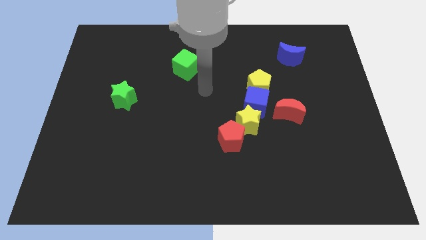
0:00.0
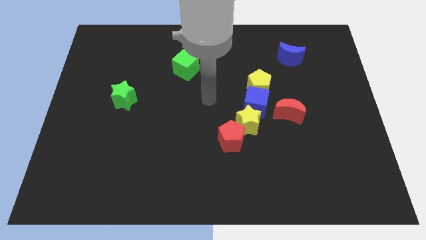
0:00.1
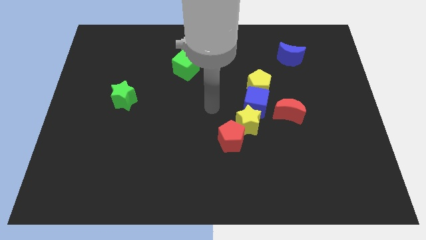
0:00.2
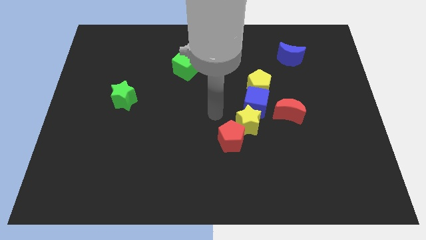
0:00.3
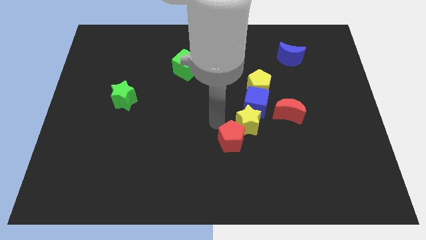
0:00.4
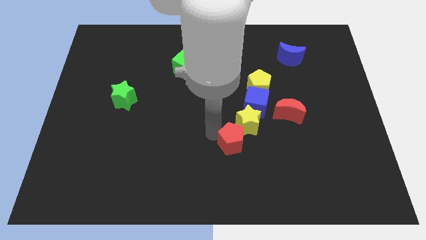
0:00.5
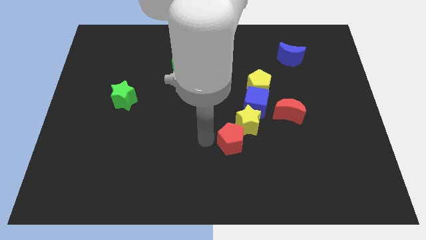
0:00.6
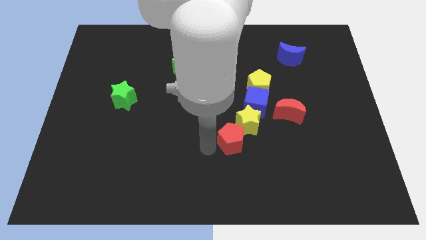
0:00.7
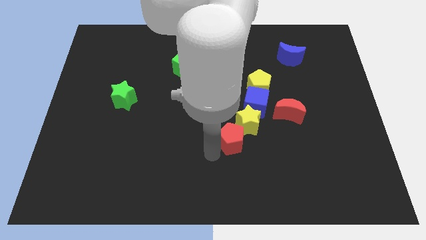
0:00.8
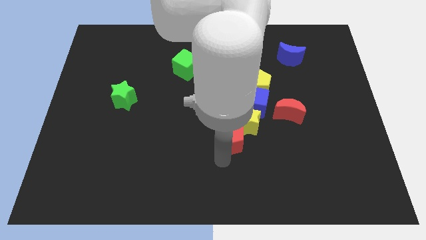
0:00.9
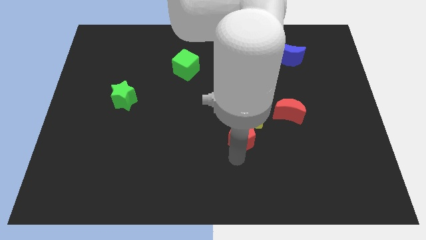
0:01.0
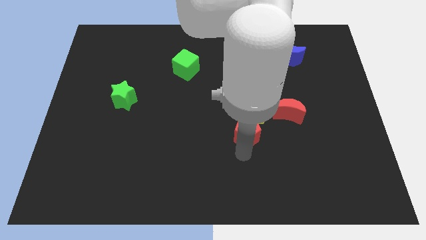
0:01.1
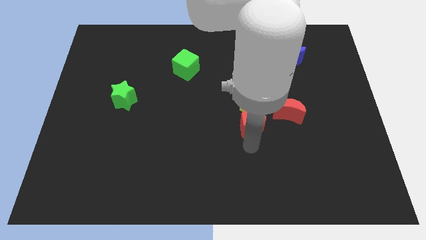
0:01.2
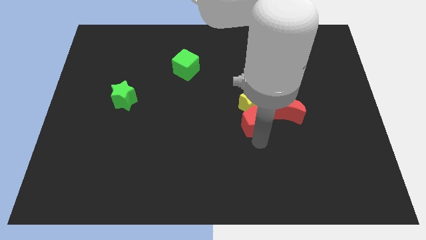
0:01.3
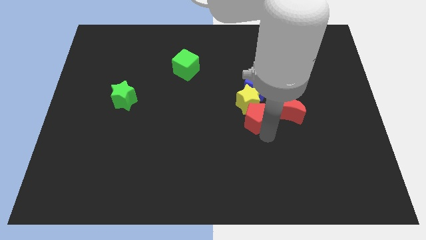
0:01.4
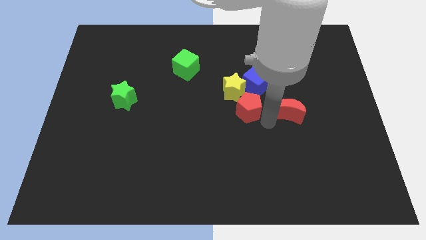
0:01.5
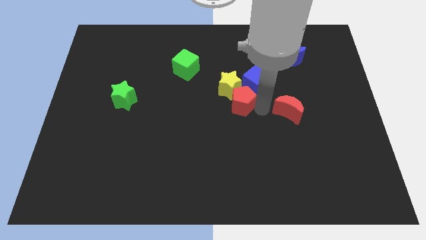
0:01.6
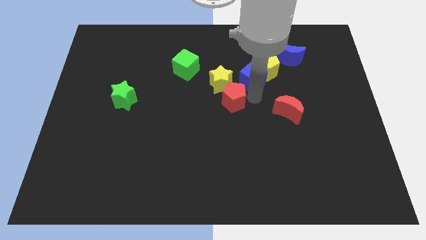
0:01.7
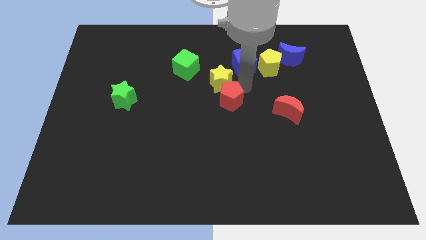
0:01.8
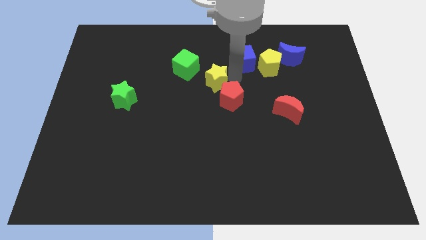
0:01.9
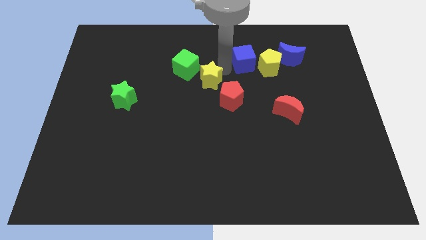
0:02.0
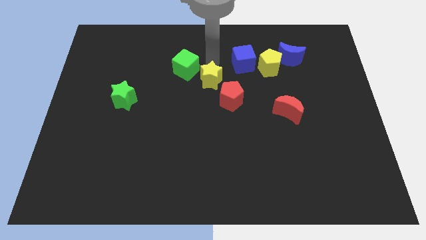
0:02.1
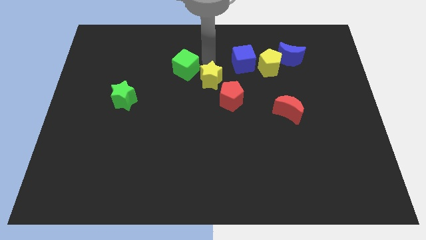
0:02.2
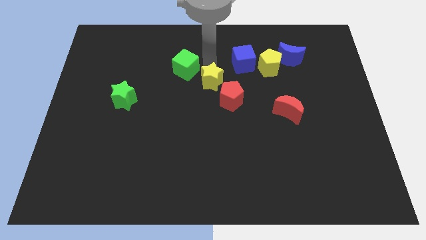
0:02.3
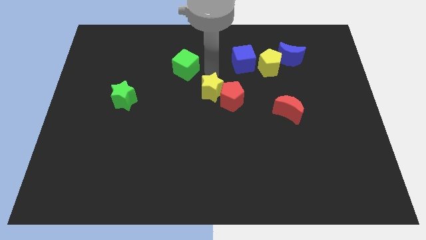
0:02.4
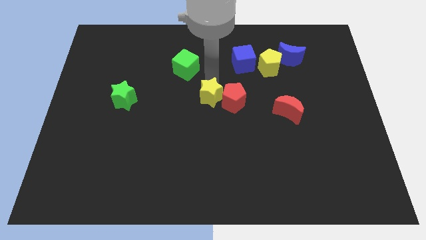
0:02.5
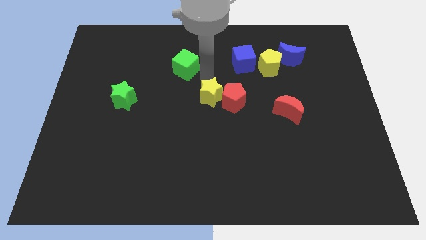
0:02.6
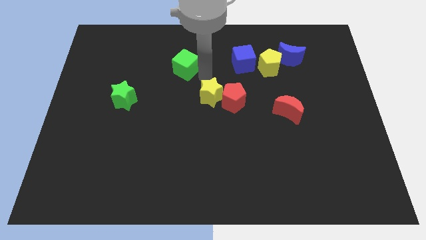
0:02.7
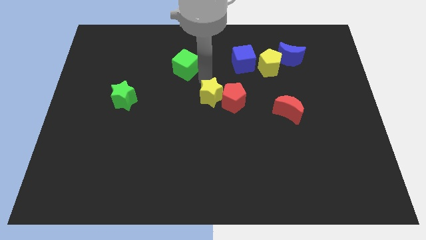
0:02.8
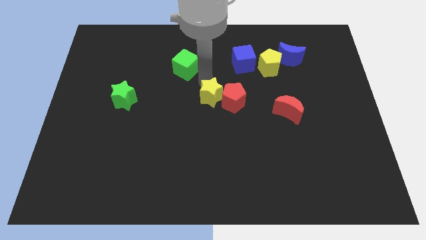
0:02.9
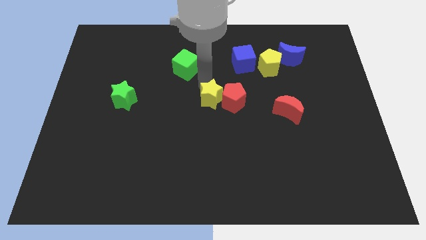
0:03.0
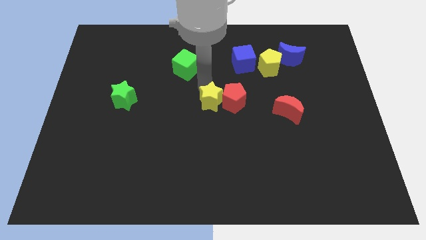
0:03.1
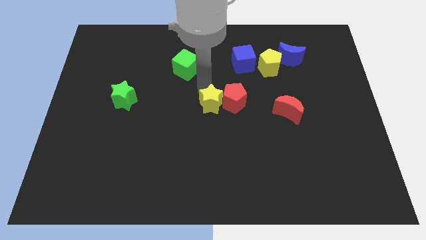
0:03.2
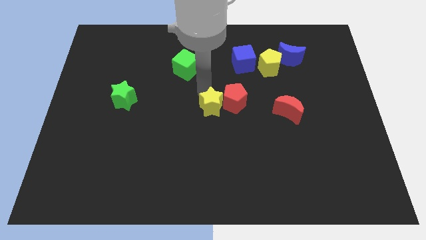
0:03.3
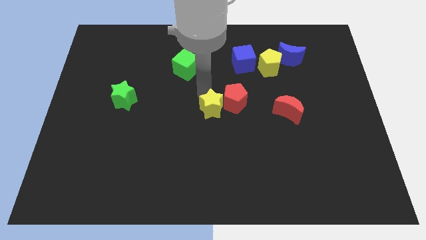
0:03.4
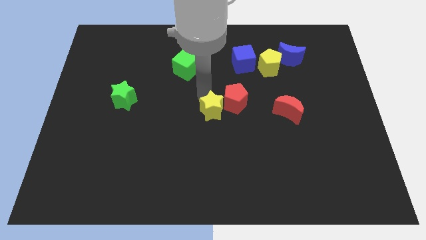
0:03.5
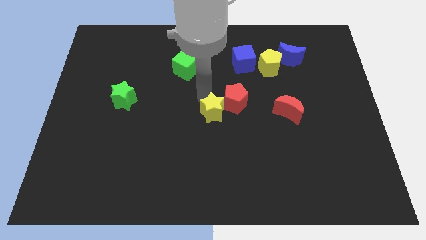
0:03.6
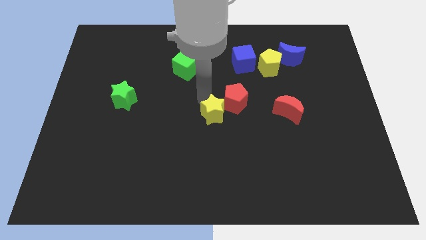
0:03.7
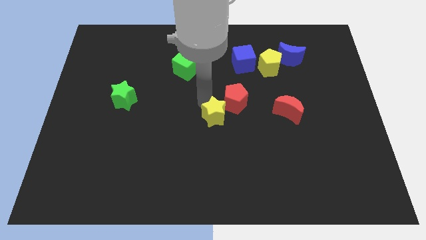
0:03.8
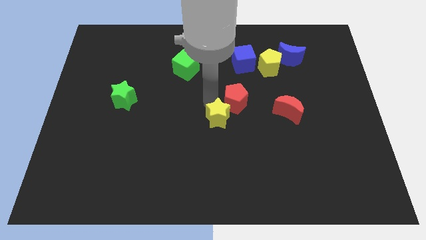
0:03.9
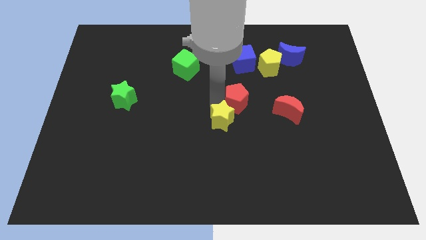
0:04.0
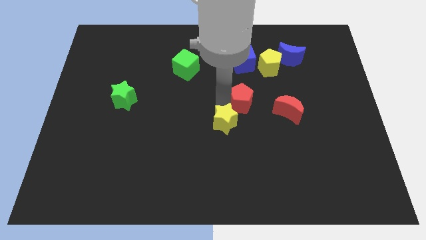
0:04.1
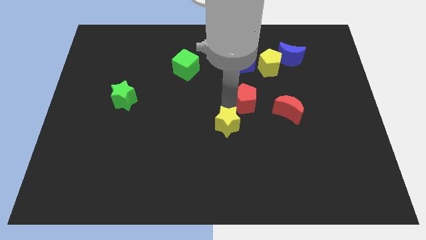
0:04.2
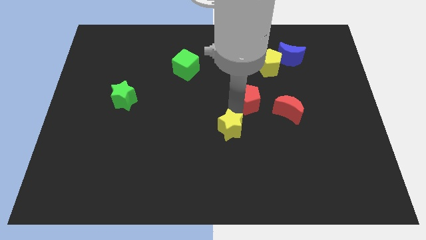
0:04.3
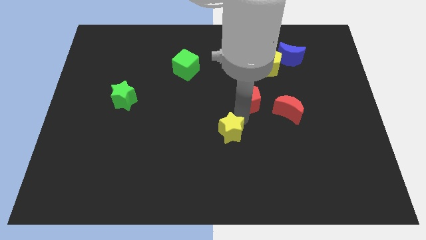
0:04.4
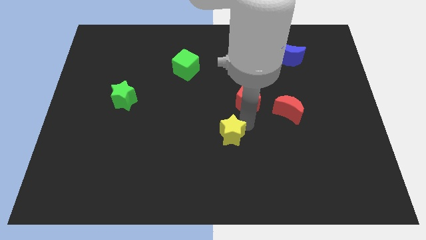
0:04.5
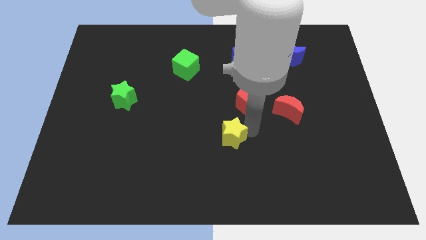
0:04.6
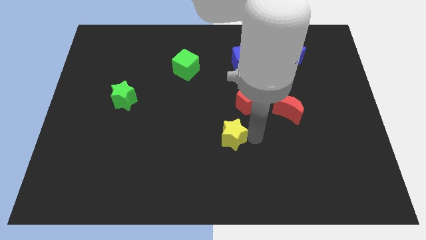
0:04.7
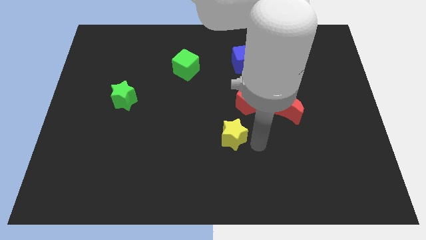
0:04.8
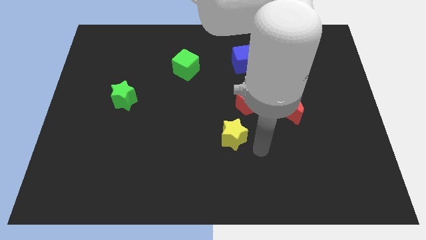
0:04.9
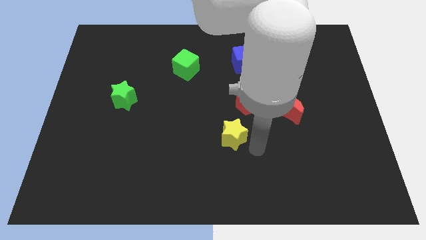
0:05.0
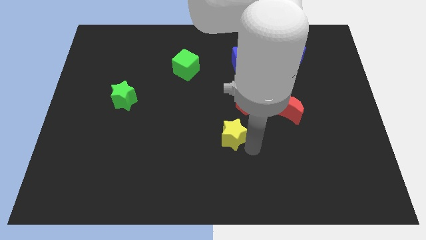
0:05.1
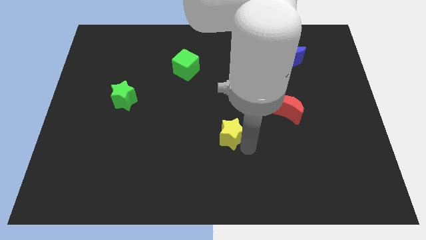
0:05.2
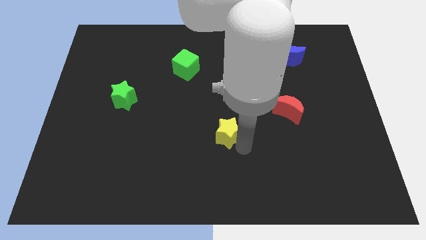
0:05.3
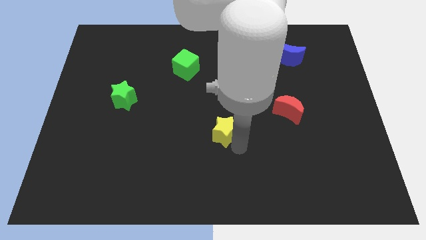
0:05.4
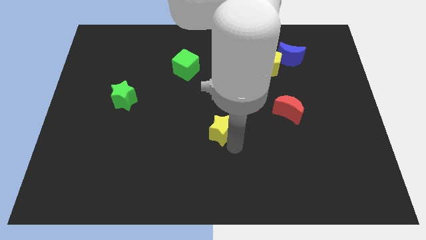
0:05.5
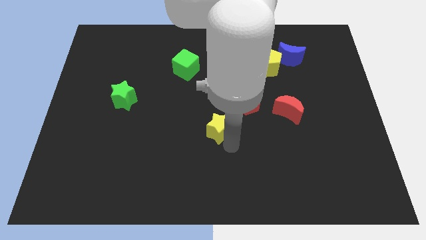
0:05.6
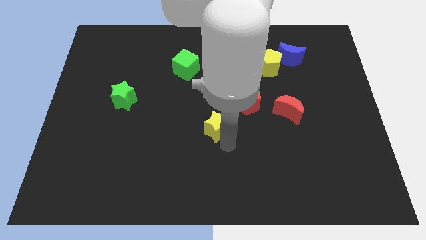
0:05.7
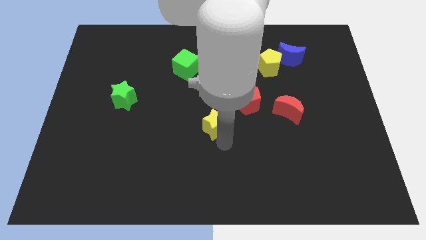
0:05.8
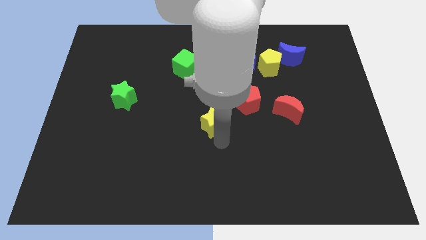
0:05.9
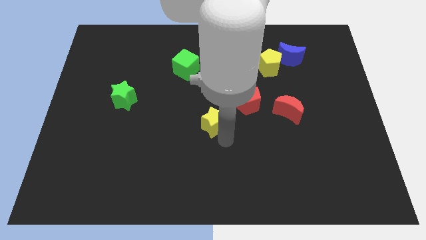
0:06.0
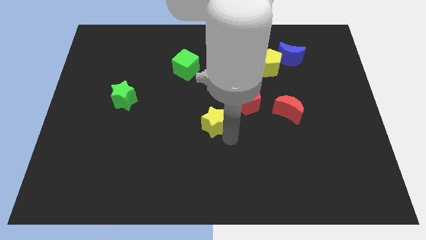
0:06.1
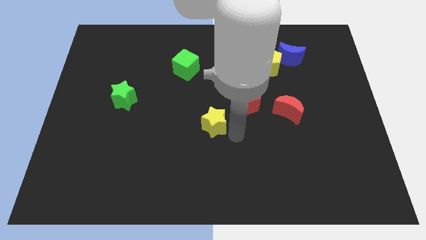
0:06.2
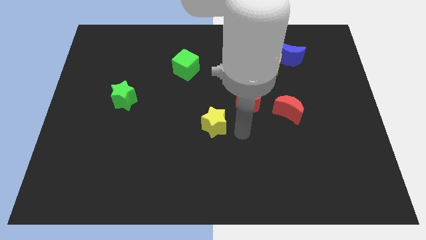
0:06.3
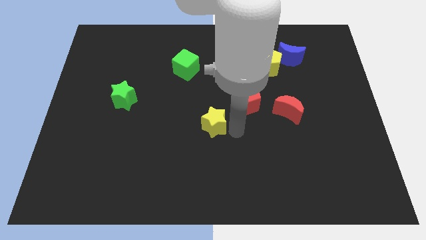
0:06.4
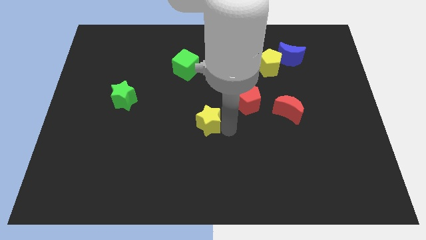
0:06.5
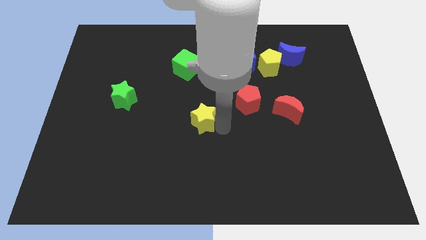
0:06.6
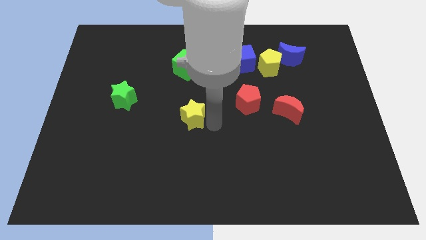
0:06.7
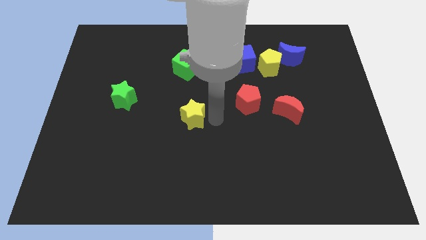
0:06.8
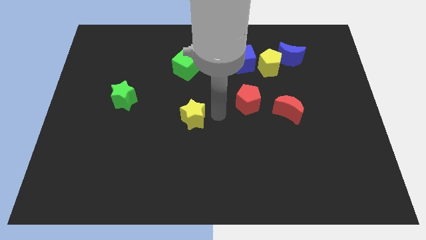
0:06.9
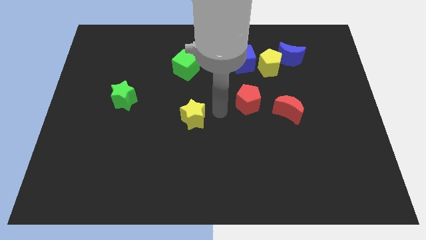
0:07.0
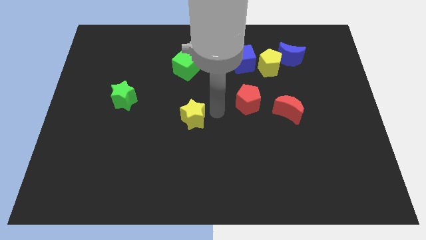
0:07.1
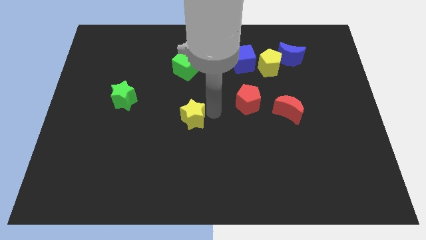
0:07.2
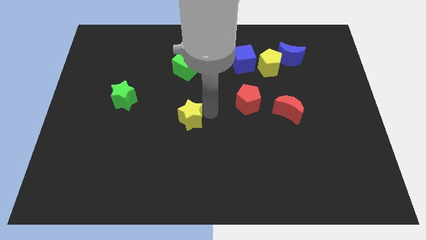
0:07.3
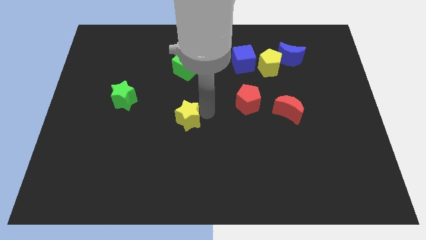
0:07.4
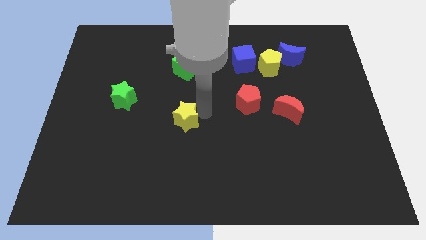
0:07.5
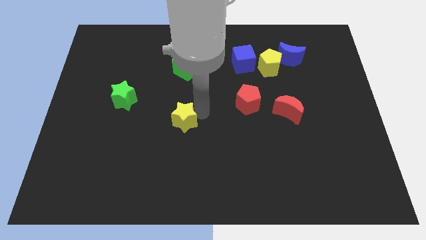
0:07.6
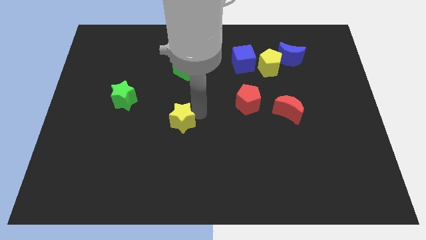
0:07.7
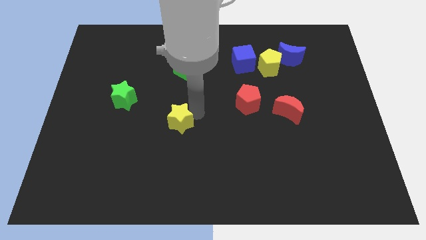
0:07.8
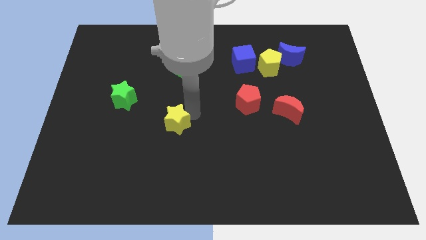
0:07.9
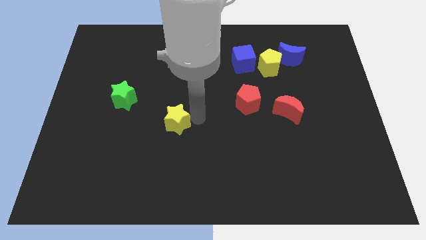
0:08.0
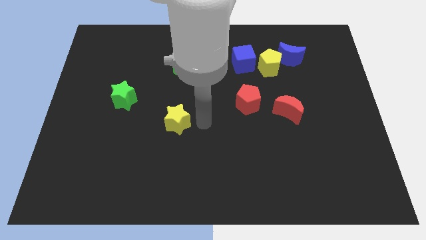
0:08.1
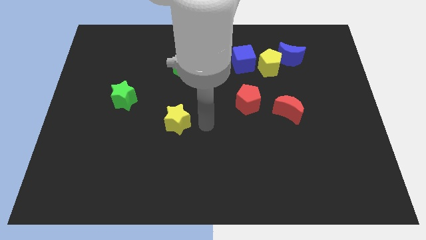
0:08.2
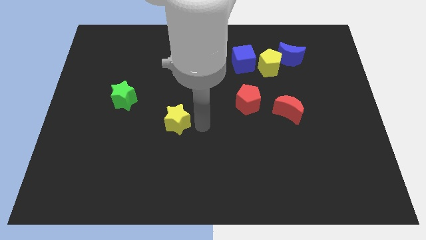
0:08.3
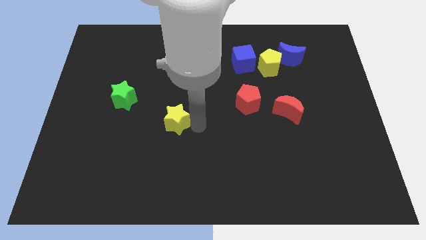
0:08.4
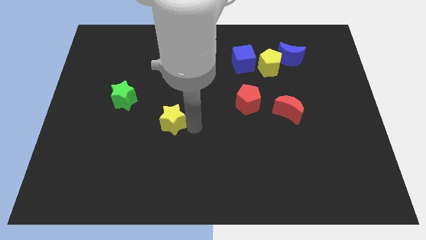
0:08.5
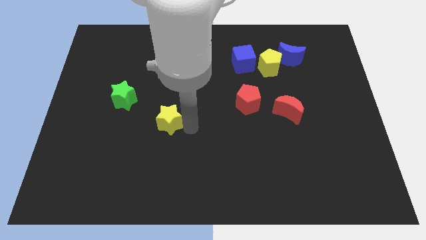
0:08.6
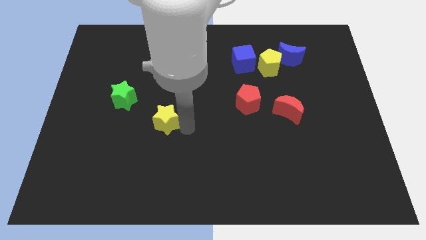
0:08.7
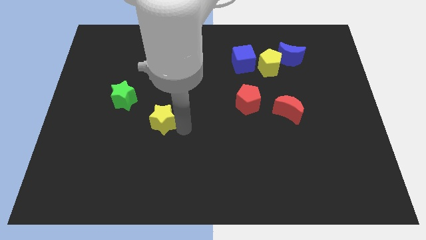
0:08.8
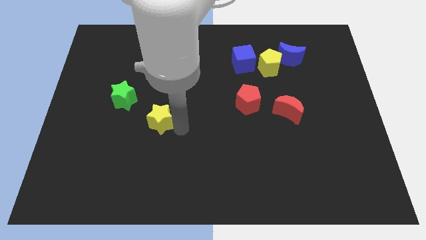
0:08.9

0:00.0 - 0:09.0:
move the yellow star to the left
